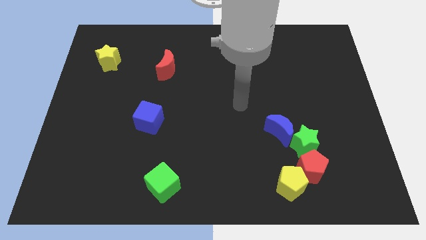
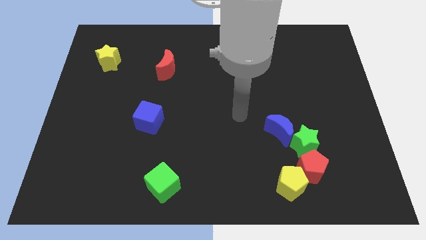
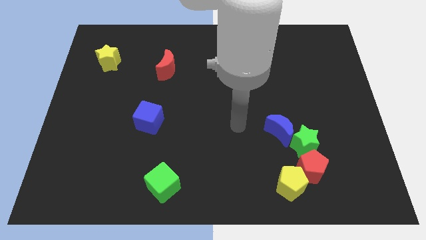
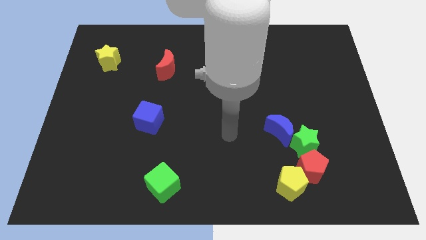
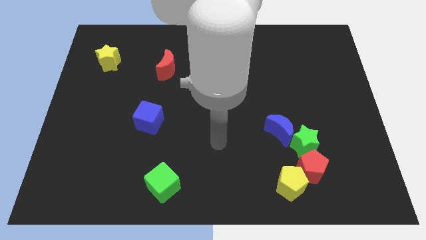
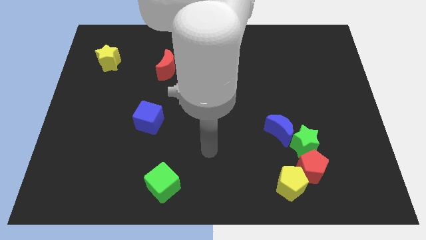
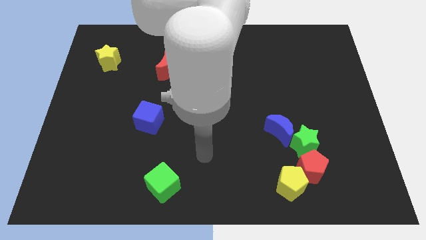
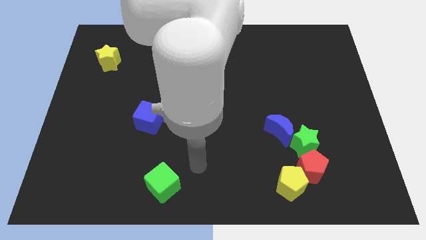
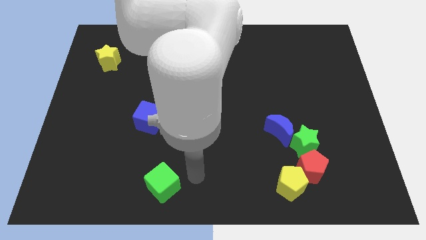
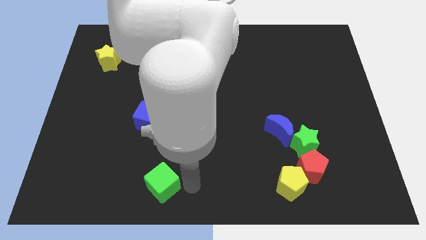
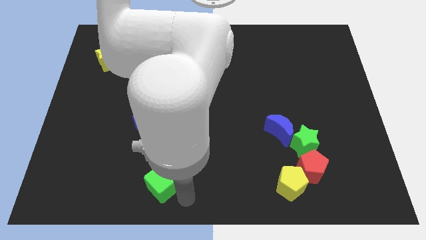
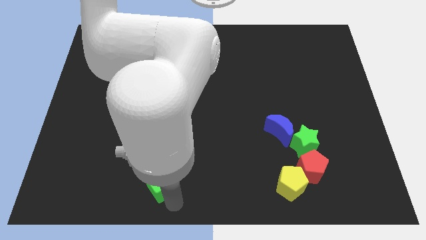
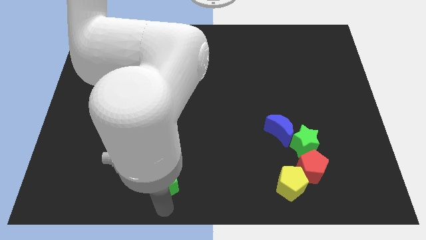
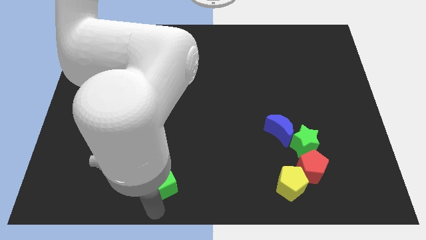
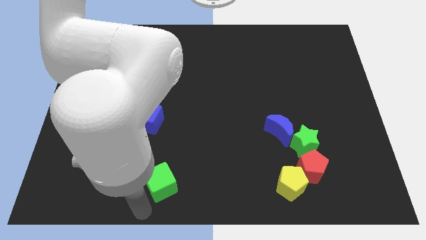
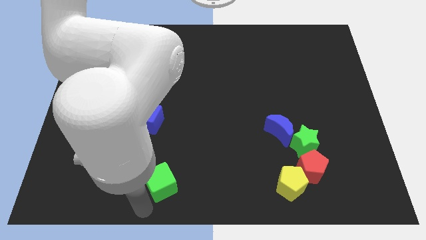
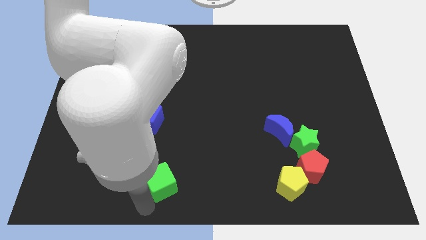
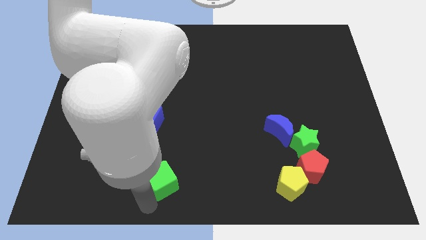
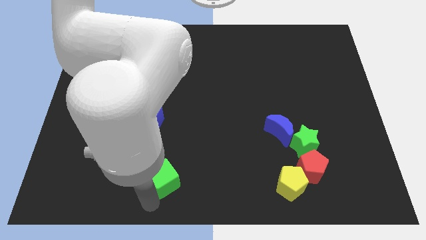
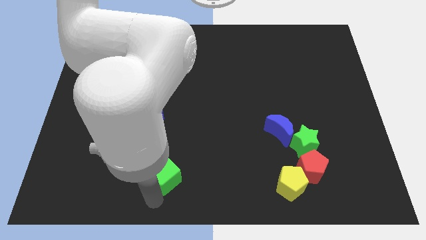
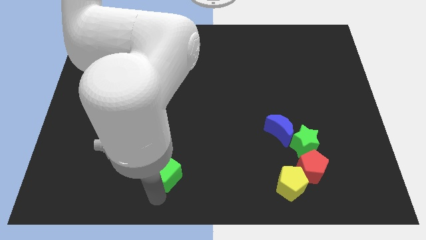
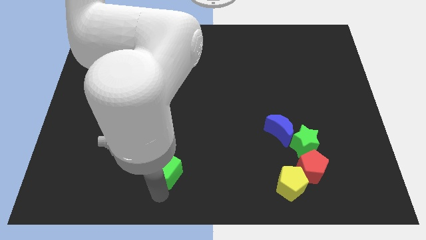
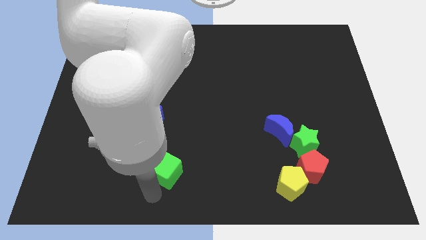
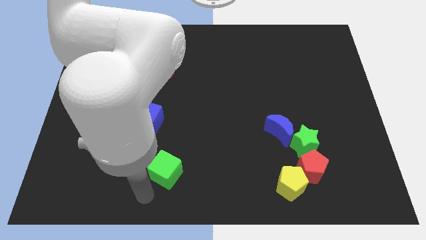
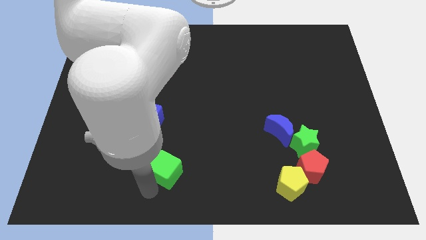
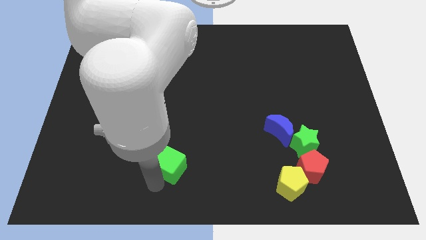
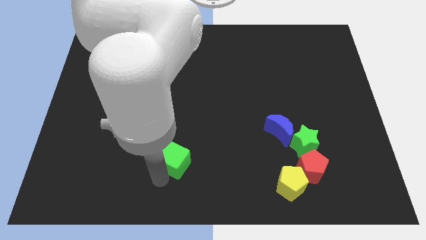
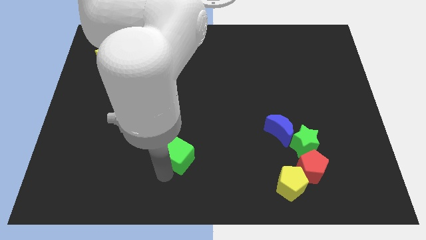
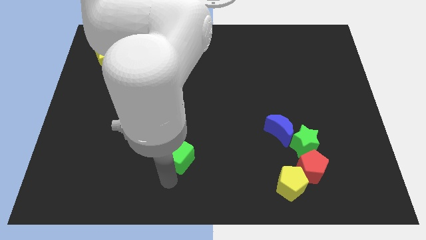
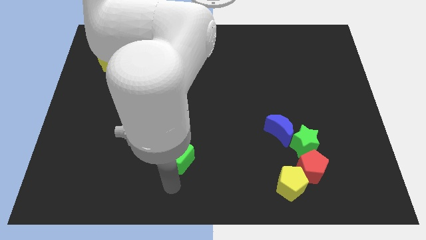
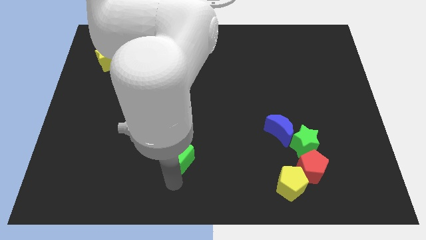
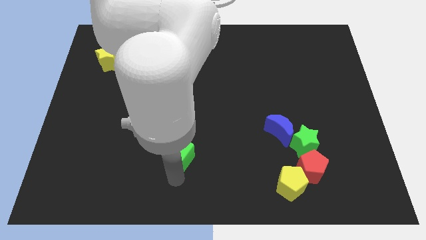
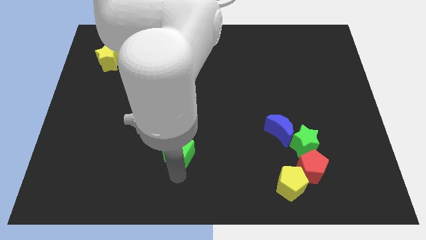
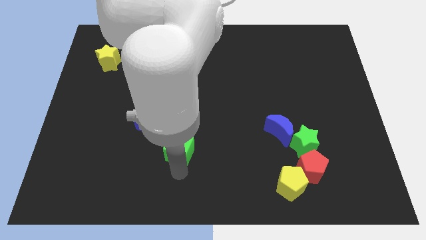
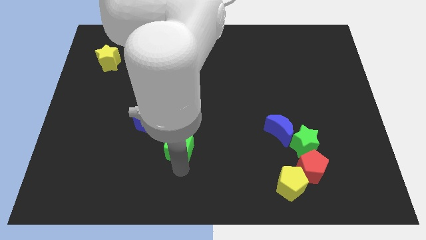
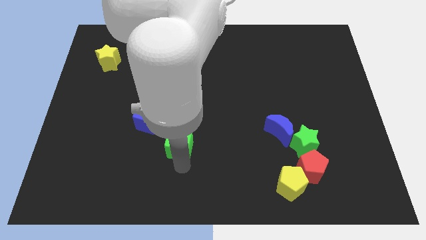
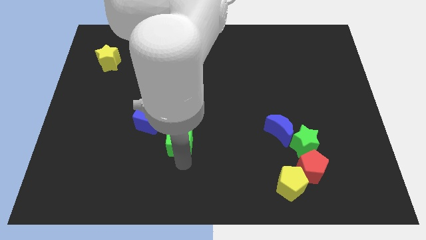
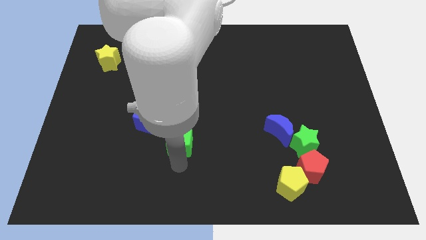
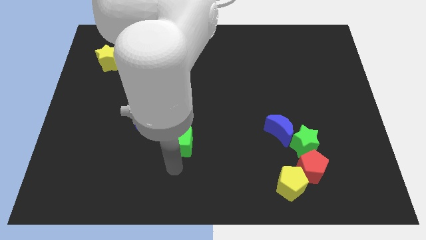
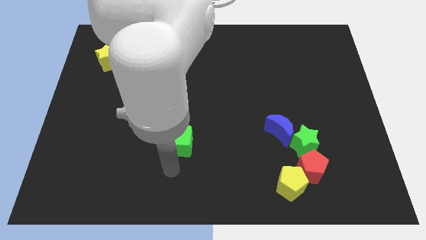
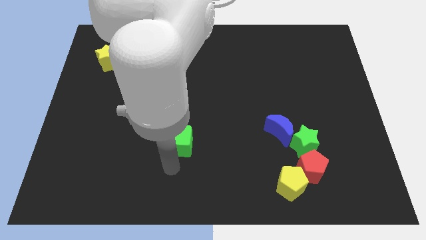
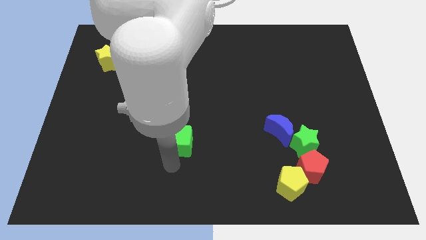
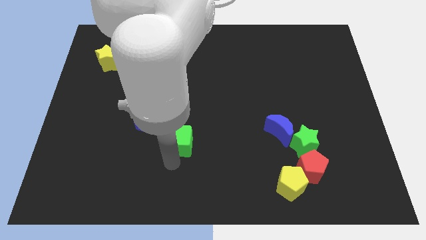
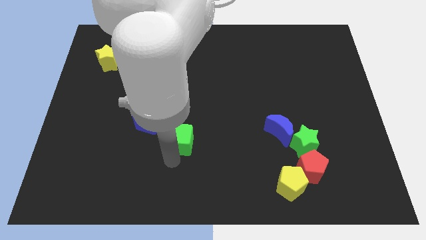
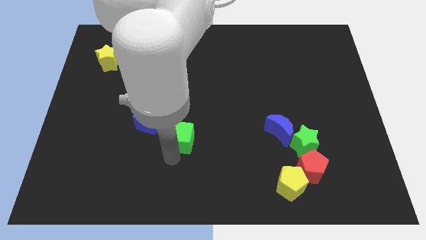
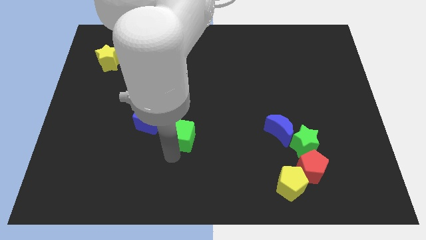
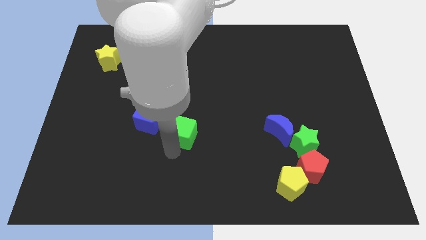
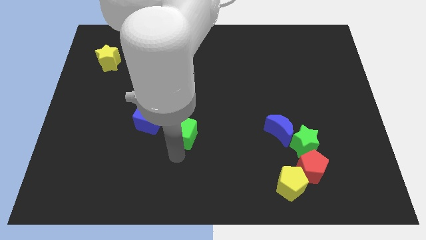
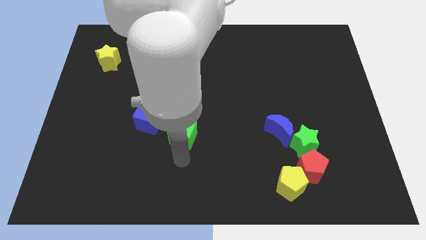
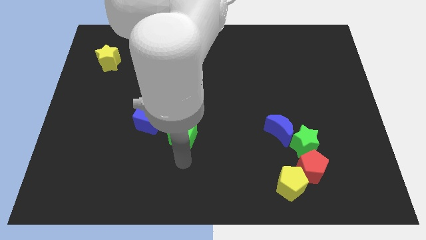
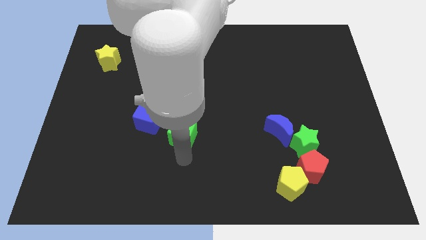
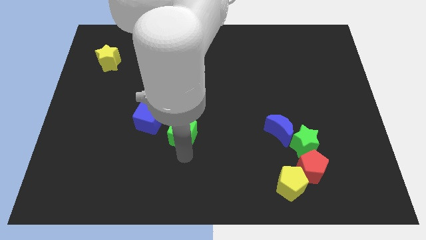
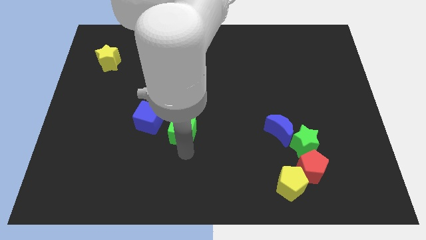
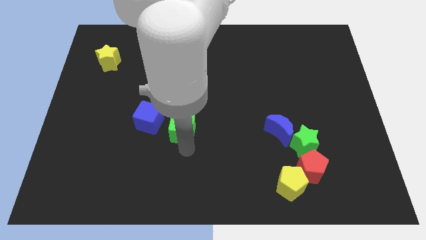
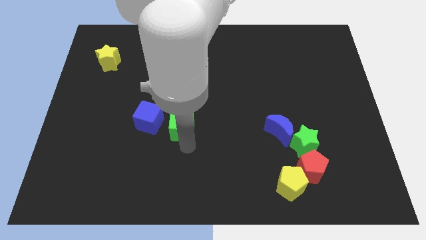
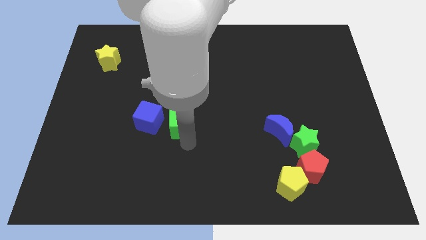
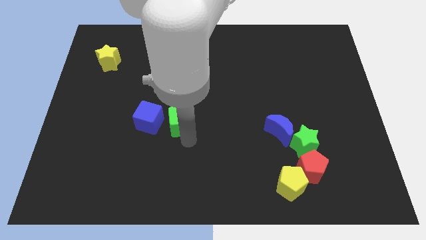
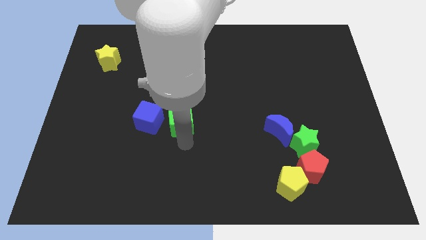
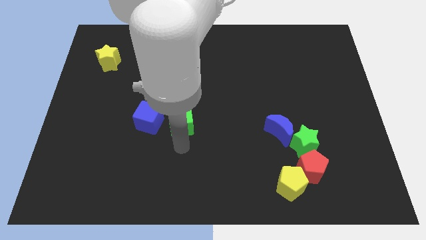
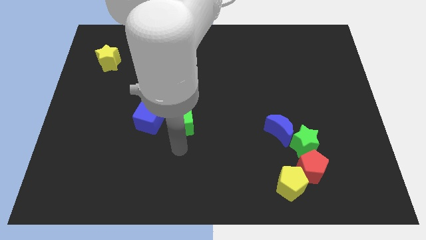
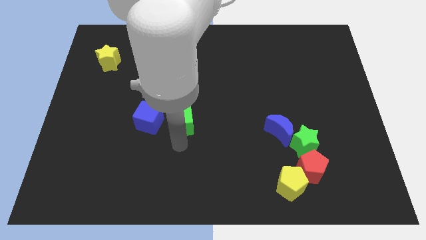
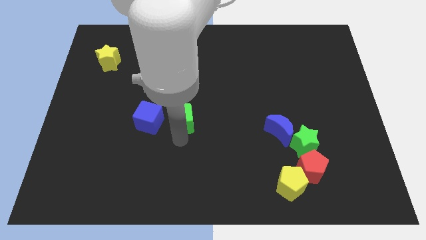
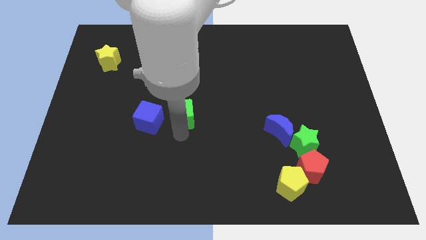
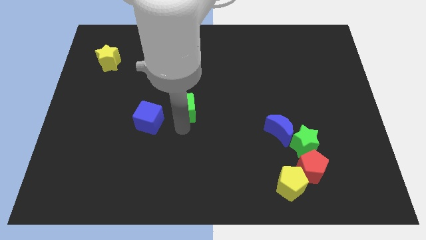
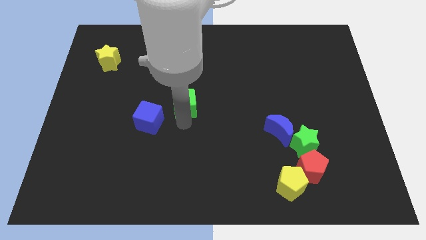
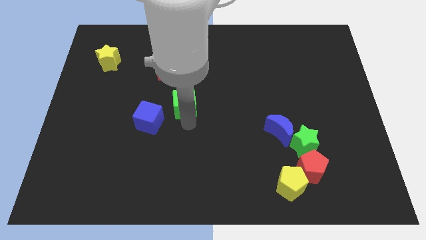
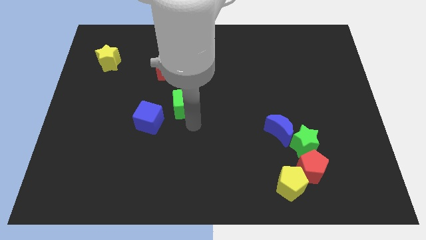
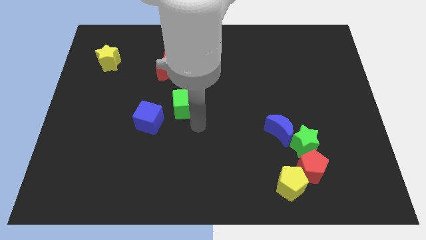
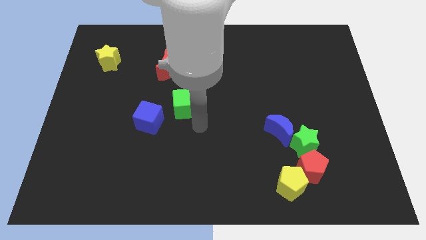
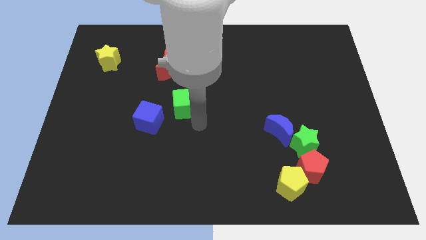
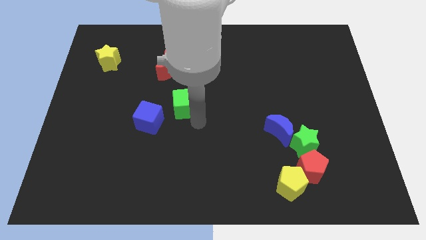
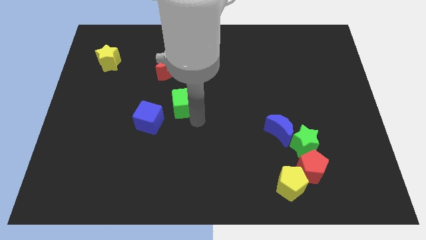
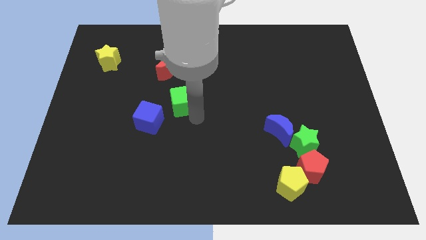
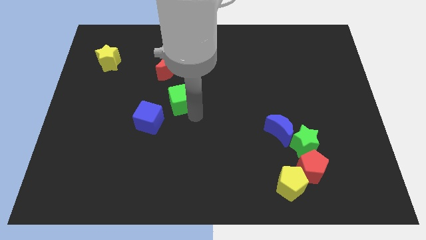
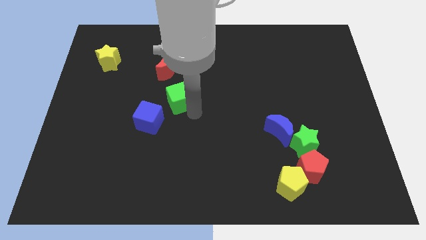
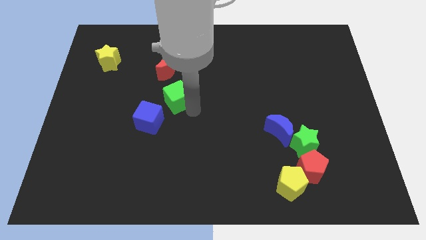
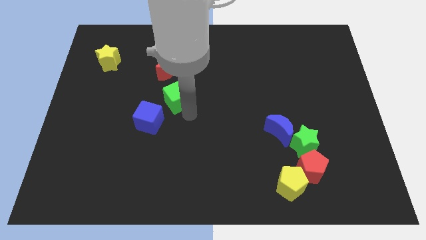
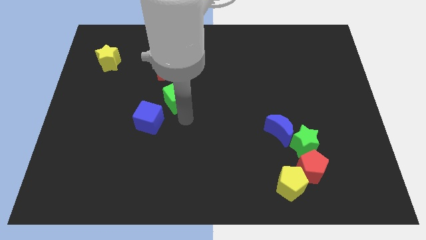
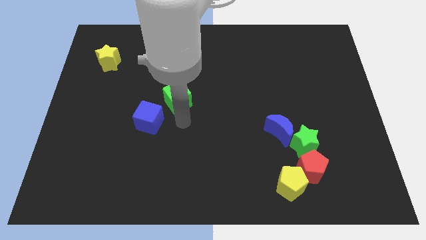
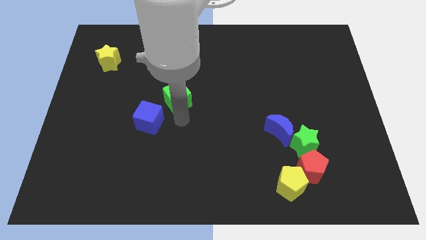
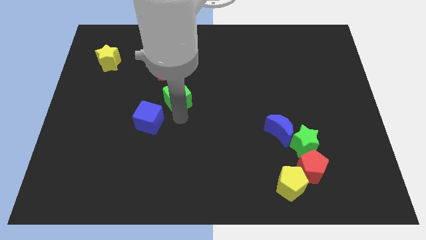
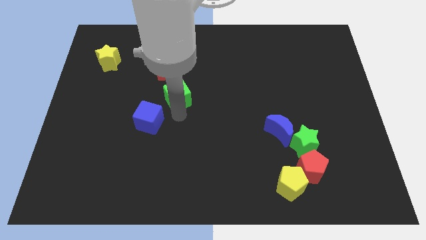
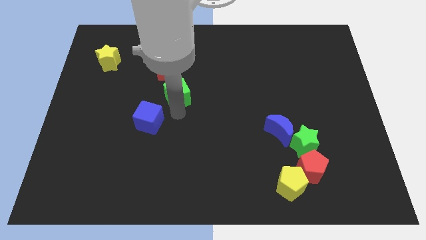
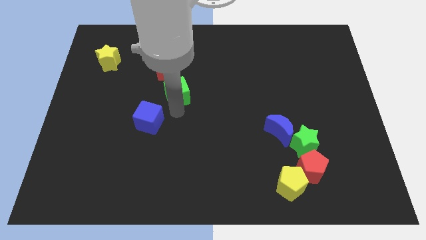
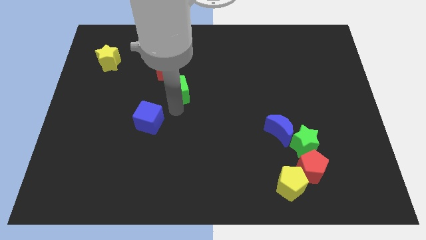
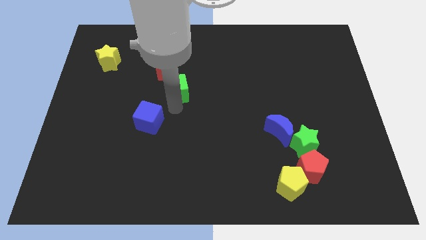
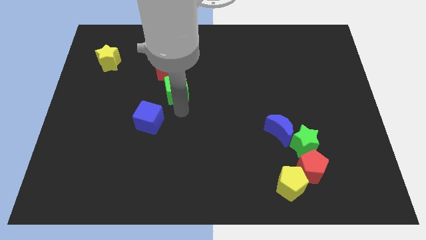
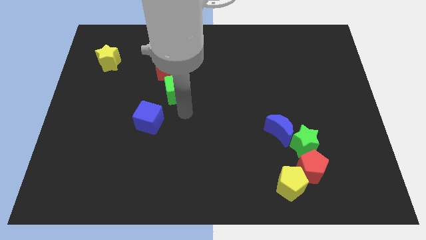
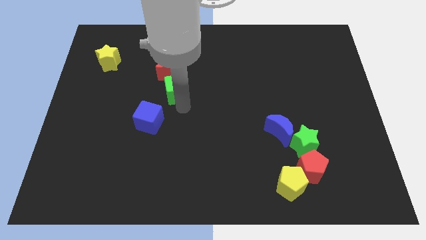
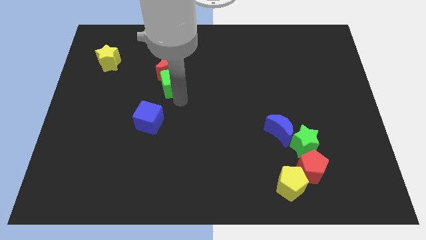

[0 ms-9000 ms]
move the green cube next to the red moon
